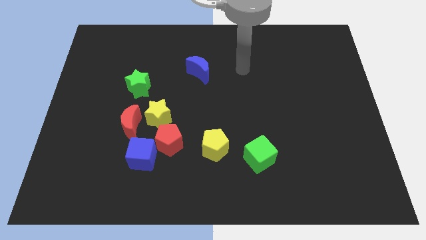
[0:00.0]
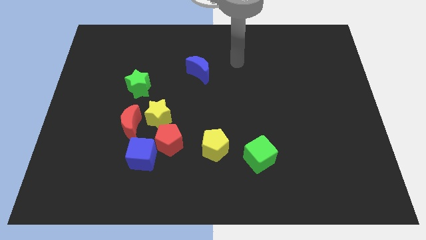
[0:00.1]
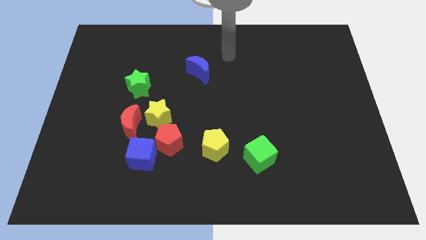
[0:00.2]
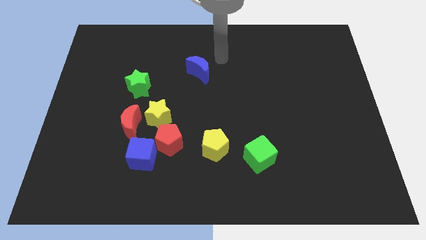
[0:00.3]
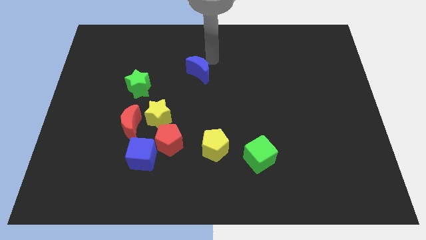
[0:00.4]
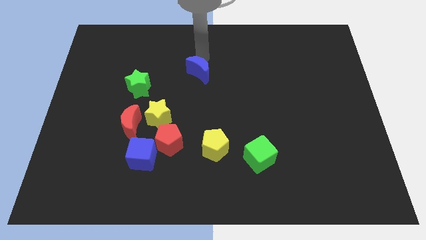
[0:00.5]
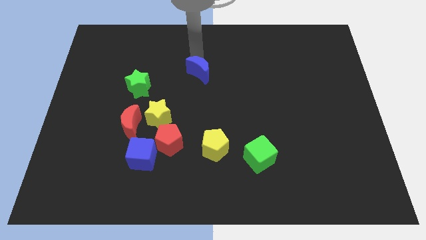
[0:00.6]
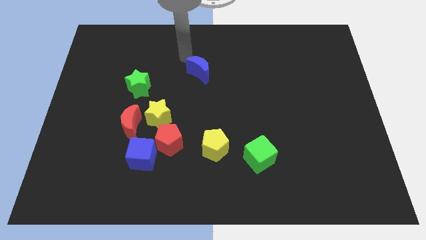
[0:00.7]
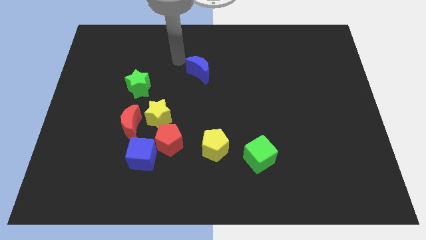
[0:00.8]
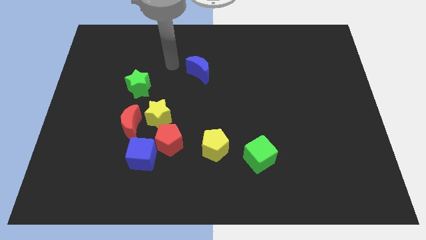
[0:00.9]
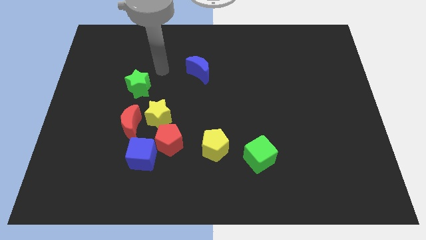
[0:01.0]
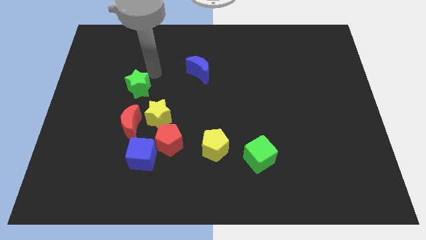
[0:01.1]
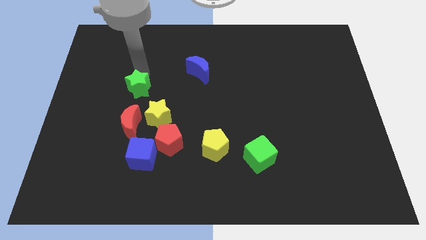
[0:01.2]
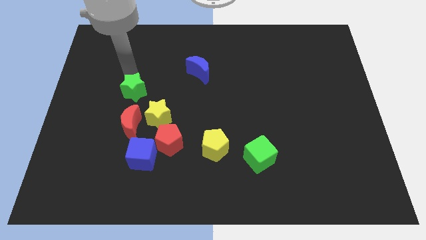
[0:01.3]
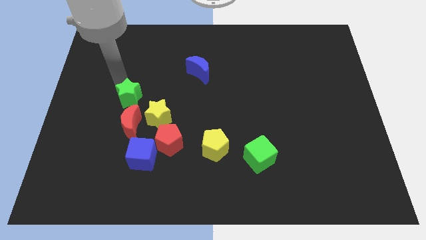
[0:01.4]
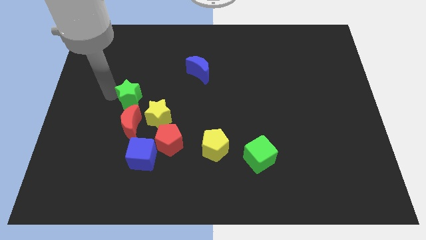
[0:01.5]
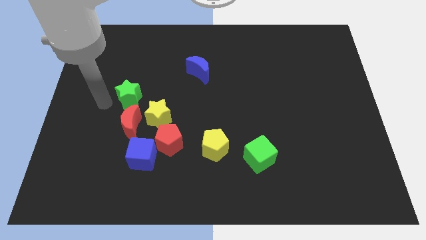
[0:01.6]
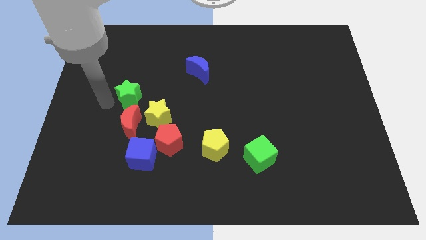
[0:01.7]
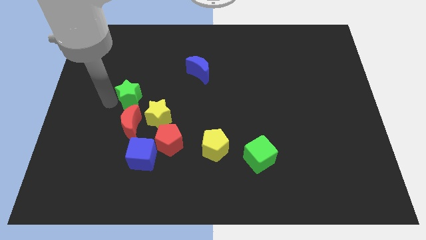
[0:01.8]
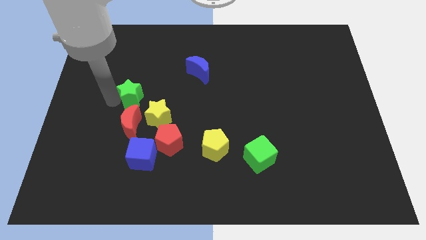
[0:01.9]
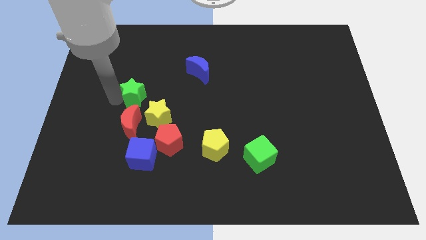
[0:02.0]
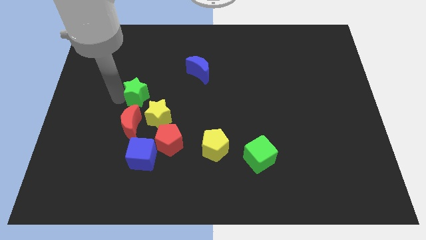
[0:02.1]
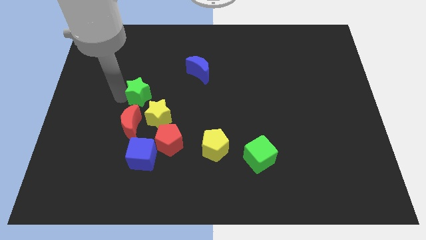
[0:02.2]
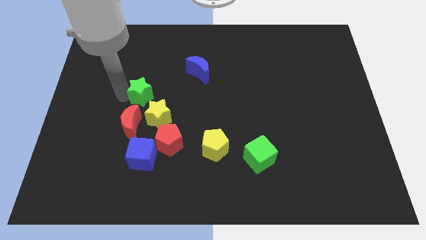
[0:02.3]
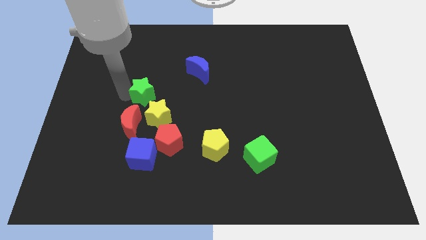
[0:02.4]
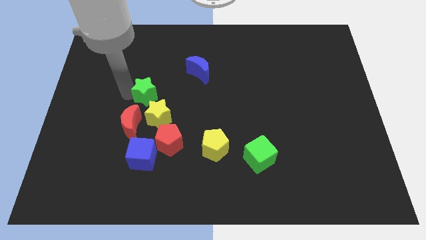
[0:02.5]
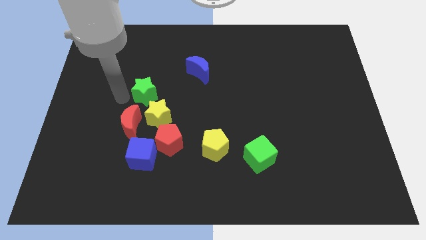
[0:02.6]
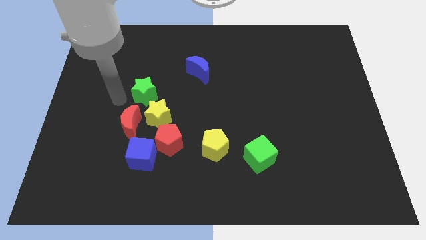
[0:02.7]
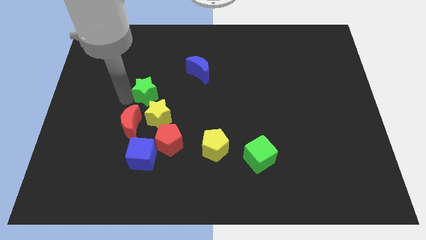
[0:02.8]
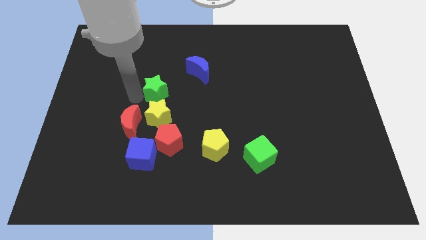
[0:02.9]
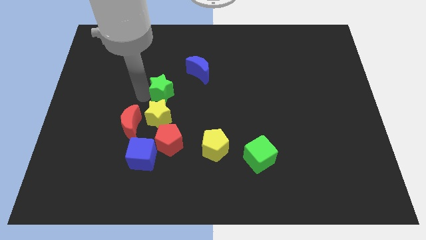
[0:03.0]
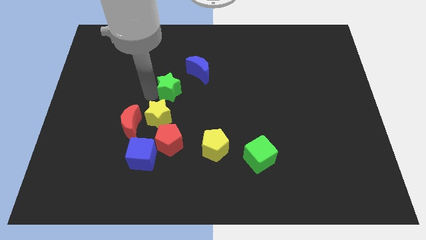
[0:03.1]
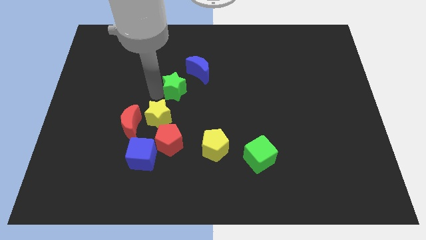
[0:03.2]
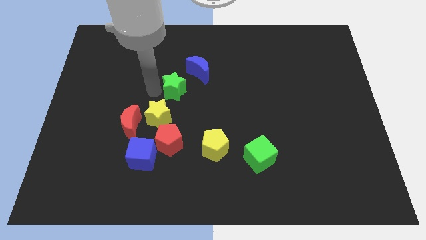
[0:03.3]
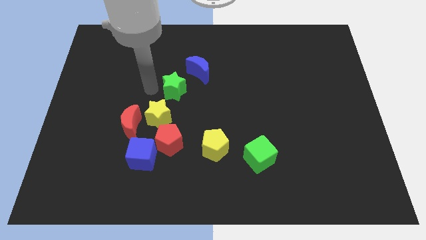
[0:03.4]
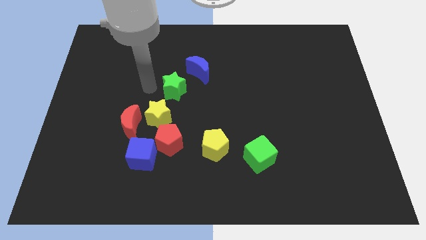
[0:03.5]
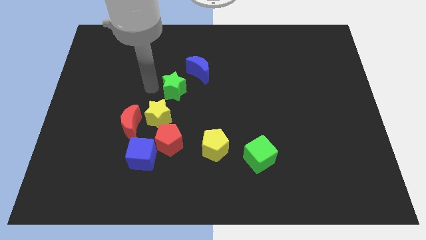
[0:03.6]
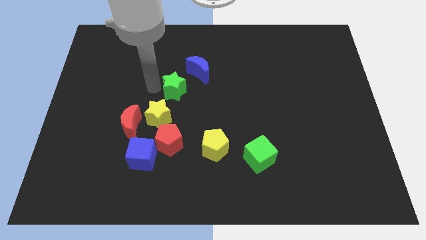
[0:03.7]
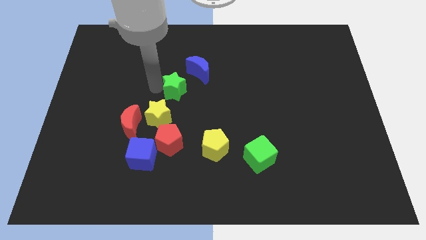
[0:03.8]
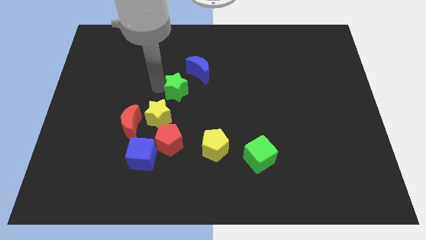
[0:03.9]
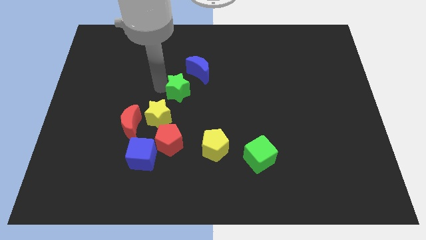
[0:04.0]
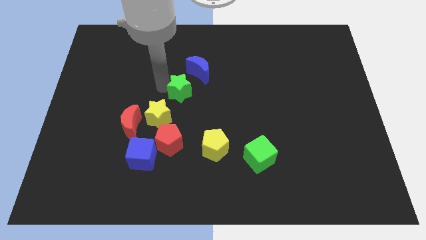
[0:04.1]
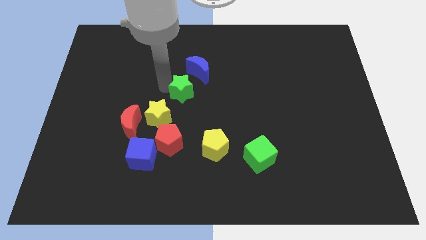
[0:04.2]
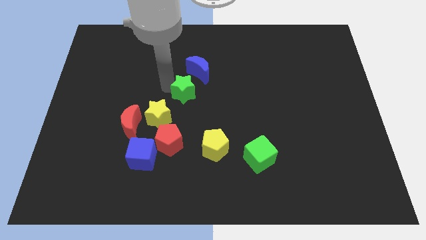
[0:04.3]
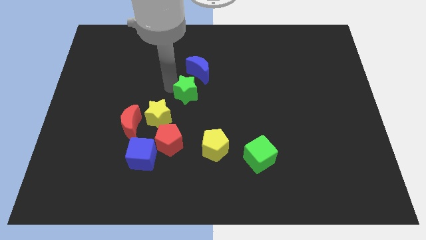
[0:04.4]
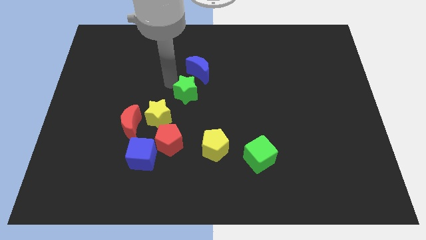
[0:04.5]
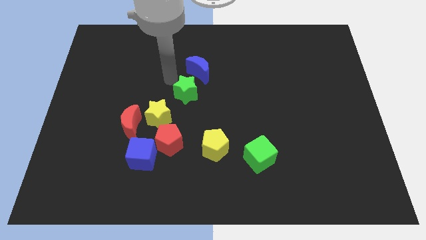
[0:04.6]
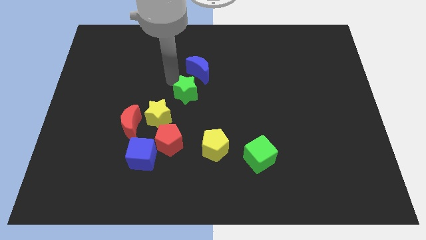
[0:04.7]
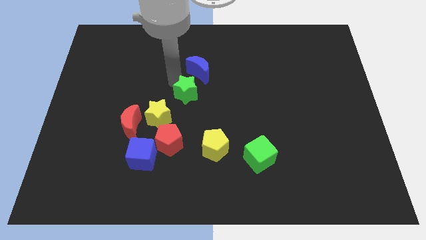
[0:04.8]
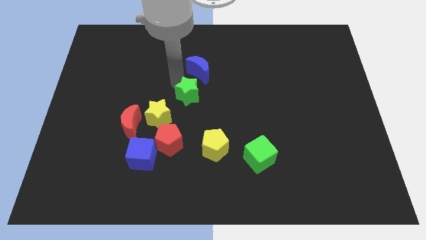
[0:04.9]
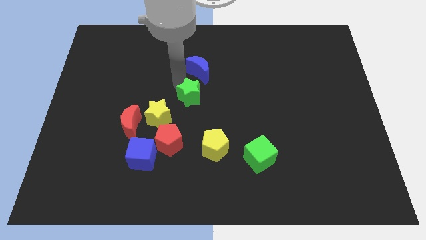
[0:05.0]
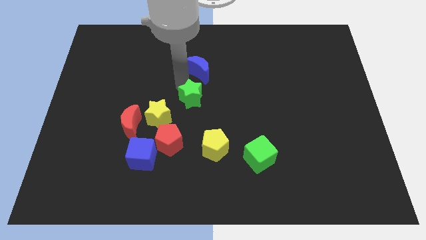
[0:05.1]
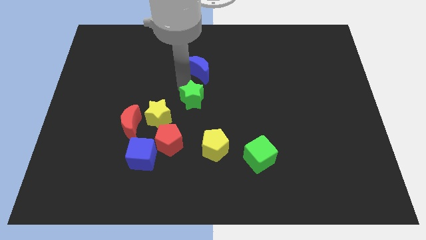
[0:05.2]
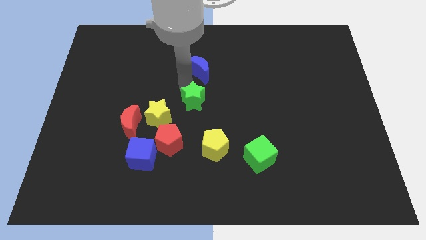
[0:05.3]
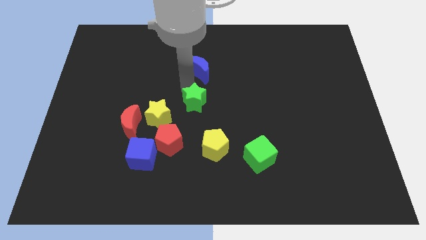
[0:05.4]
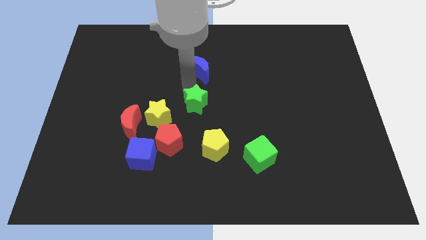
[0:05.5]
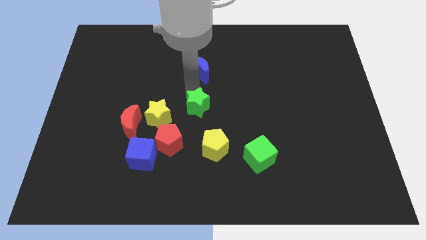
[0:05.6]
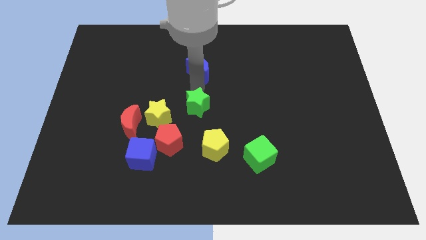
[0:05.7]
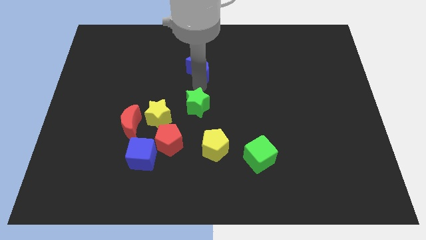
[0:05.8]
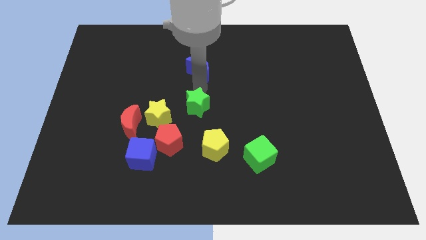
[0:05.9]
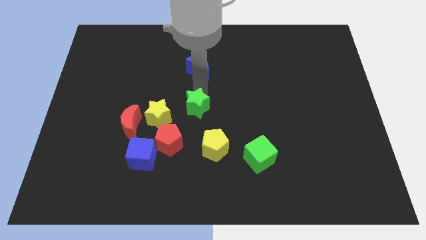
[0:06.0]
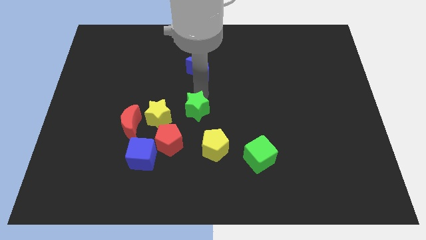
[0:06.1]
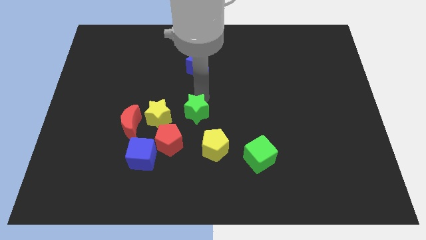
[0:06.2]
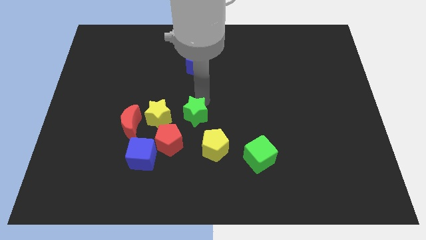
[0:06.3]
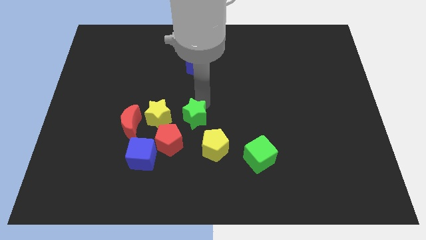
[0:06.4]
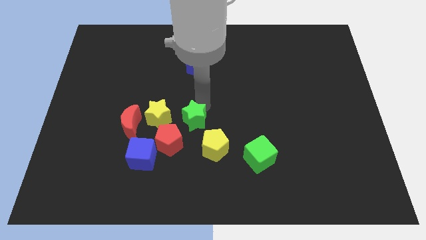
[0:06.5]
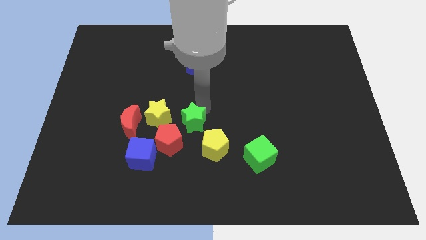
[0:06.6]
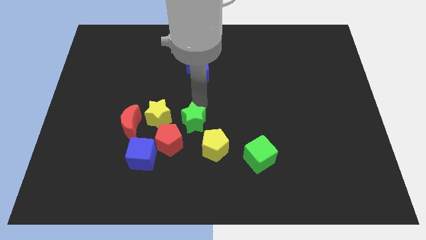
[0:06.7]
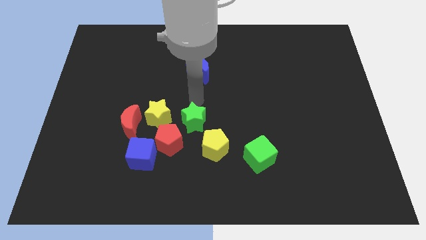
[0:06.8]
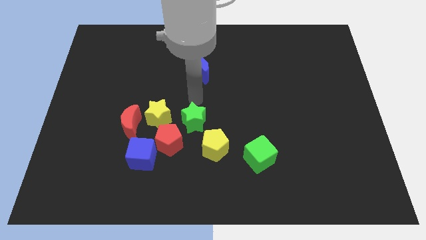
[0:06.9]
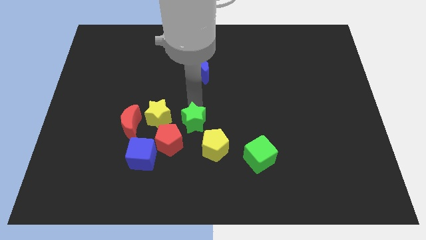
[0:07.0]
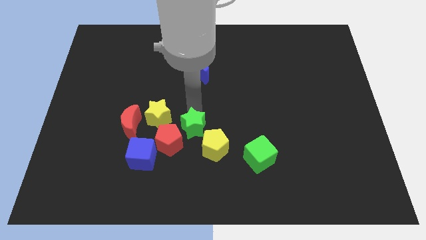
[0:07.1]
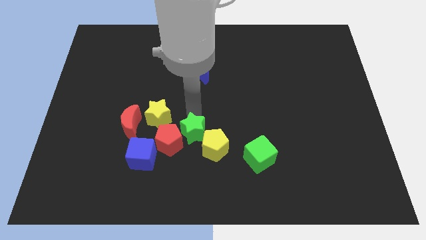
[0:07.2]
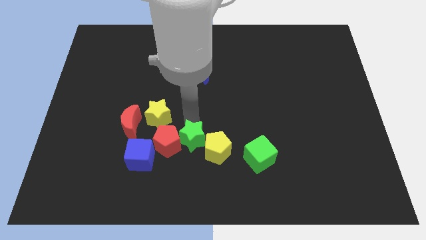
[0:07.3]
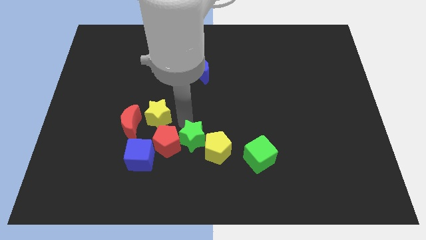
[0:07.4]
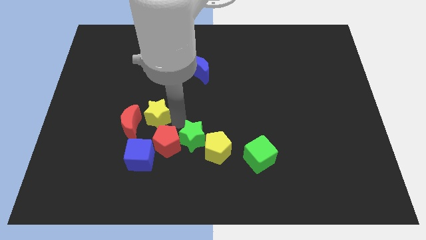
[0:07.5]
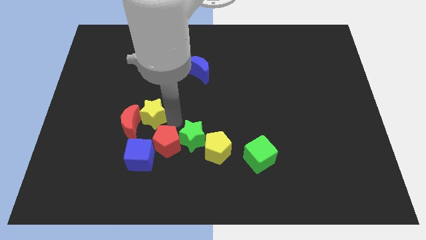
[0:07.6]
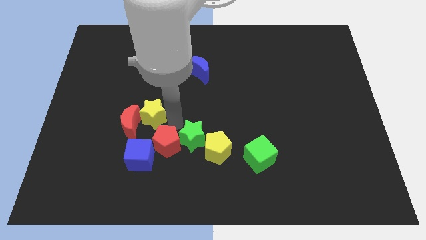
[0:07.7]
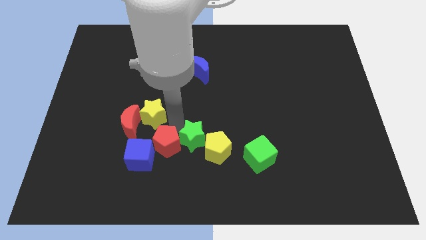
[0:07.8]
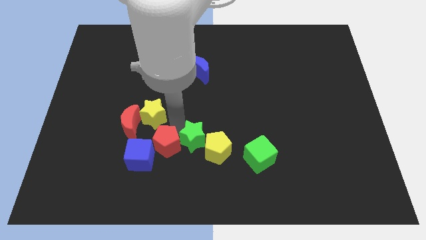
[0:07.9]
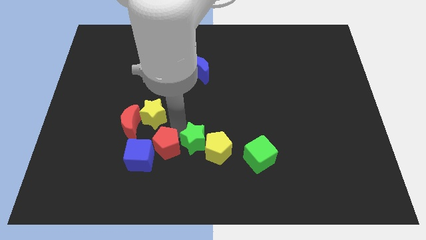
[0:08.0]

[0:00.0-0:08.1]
put the green star to the left side of the green cube
